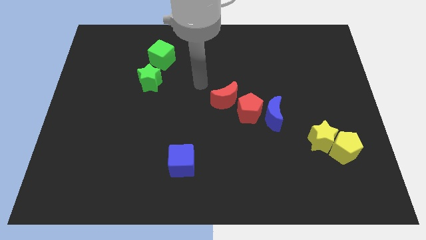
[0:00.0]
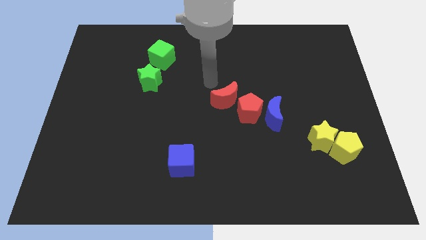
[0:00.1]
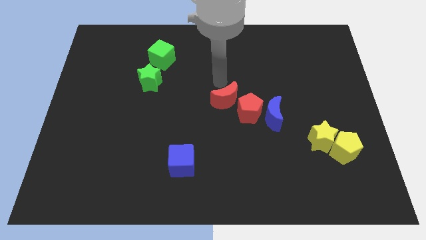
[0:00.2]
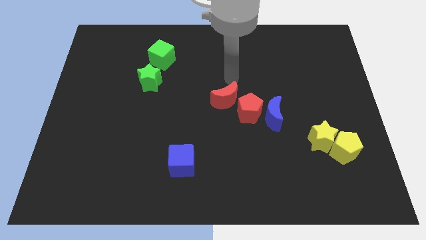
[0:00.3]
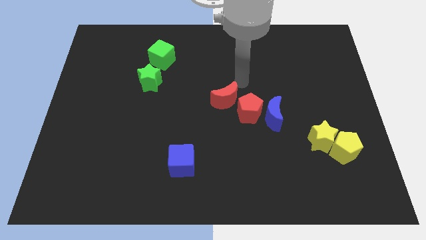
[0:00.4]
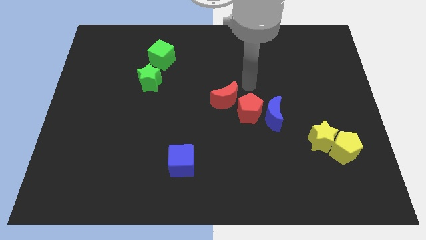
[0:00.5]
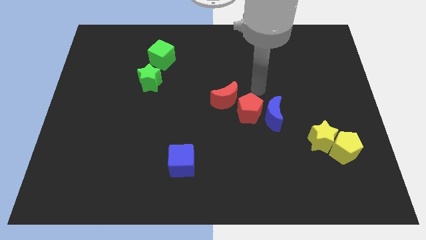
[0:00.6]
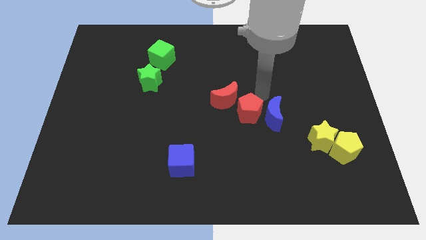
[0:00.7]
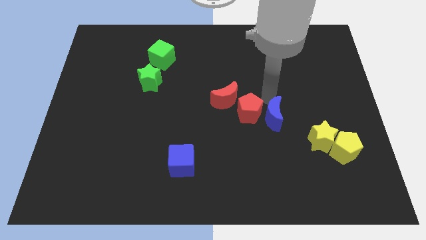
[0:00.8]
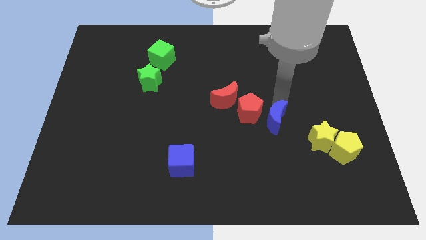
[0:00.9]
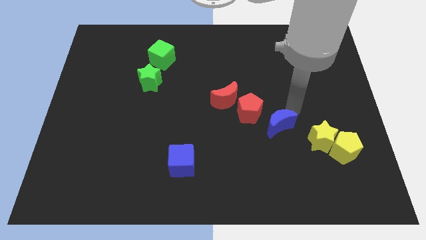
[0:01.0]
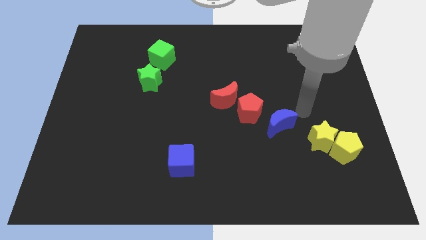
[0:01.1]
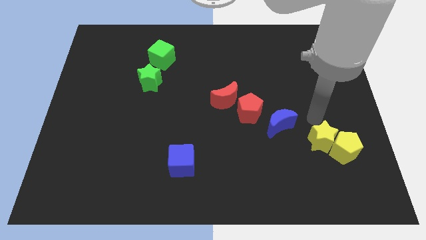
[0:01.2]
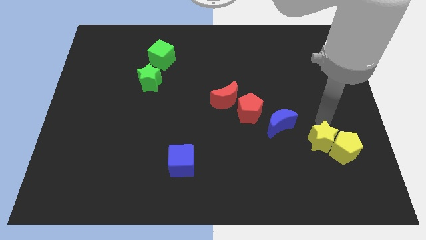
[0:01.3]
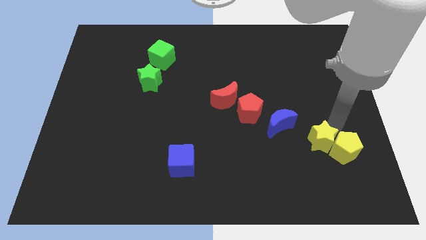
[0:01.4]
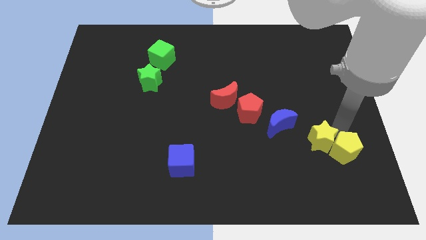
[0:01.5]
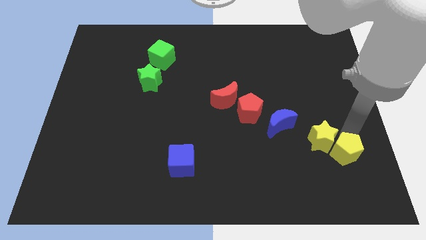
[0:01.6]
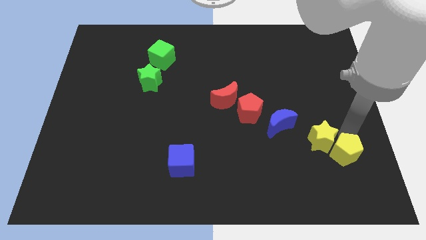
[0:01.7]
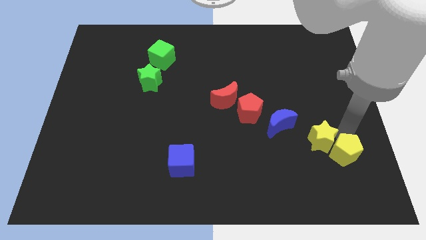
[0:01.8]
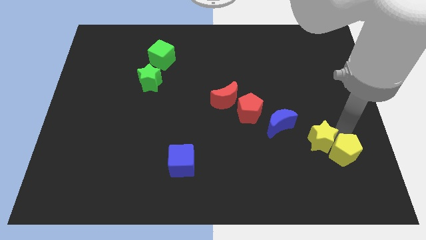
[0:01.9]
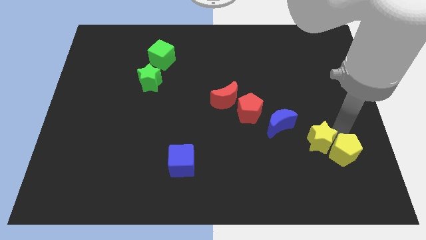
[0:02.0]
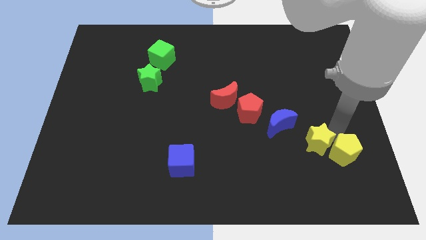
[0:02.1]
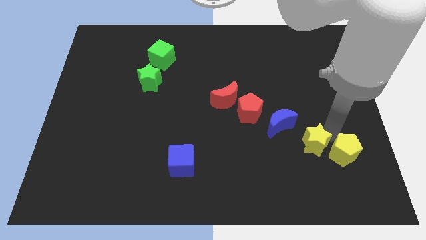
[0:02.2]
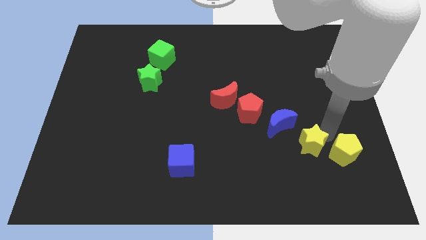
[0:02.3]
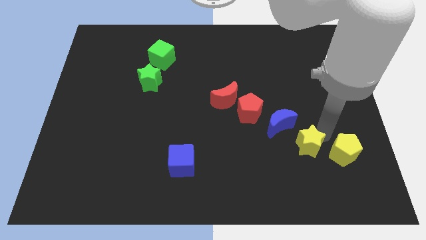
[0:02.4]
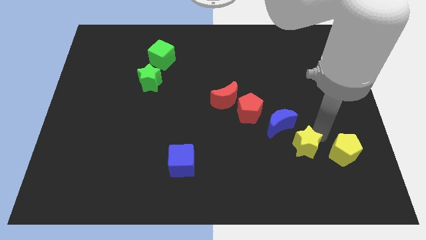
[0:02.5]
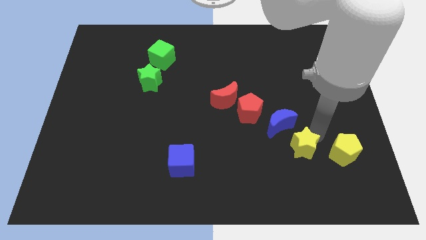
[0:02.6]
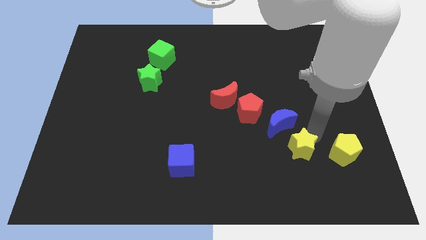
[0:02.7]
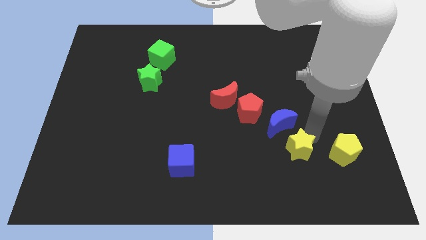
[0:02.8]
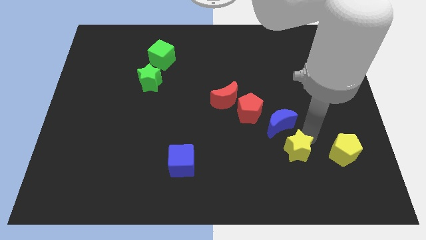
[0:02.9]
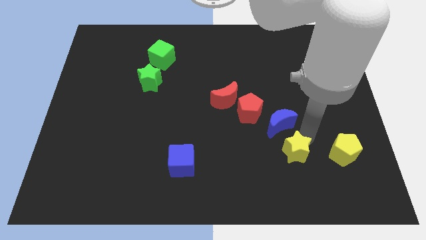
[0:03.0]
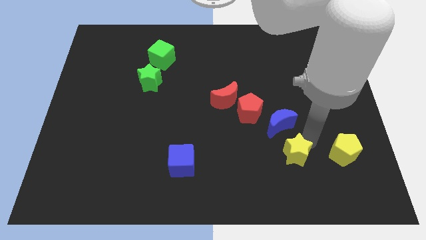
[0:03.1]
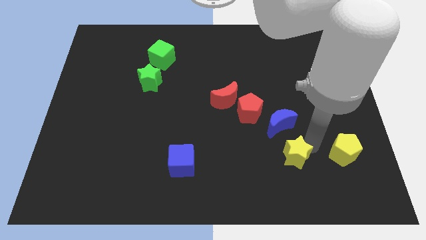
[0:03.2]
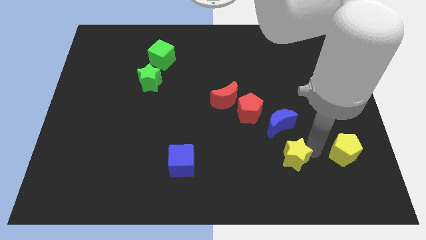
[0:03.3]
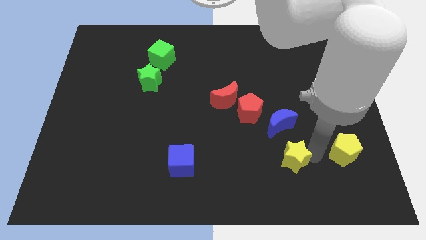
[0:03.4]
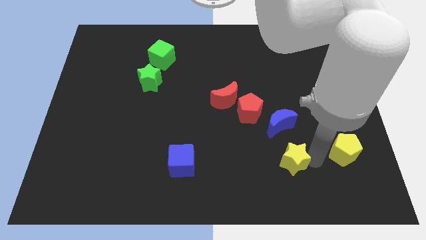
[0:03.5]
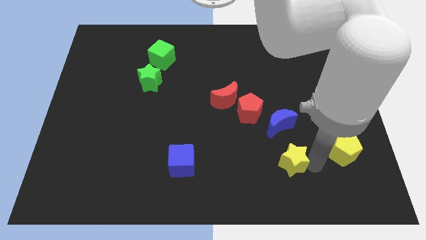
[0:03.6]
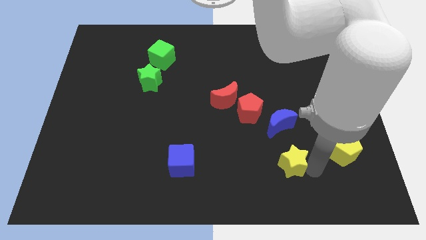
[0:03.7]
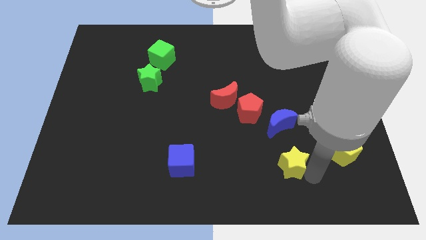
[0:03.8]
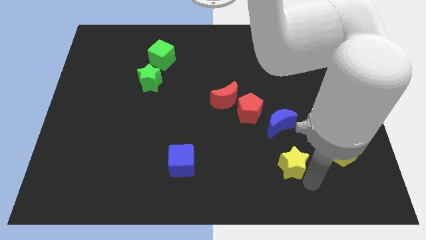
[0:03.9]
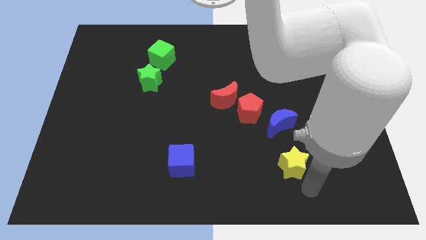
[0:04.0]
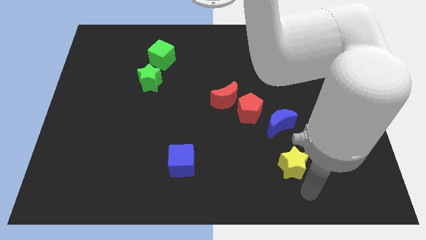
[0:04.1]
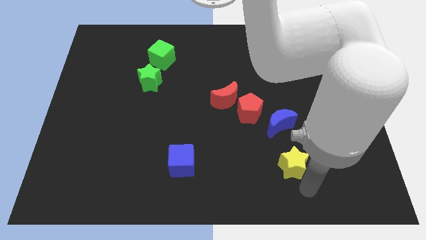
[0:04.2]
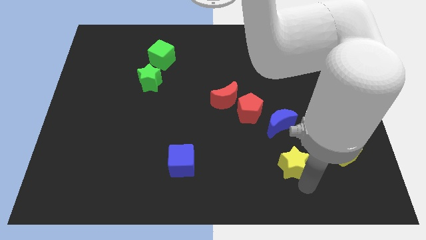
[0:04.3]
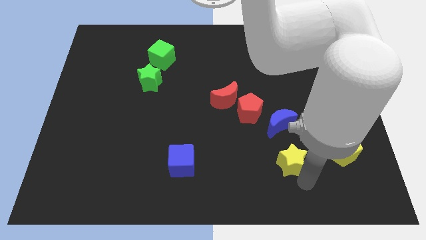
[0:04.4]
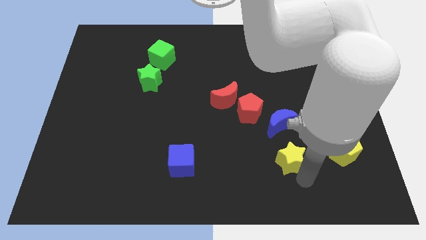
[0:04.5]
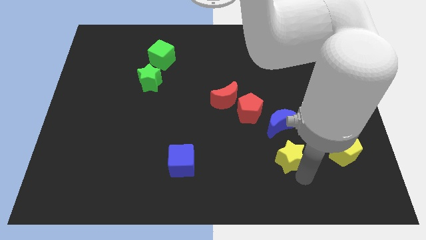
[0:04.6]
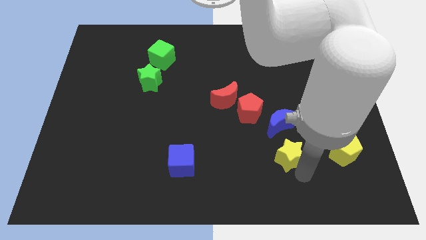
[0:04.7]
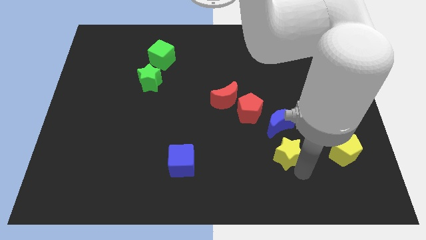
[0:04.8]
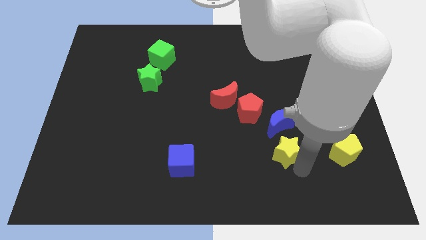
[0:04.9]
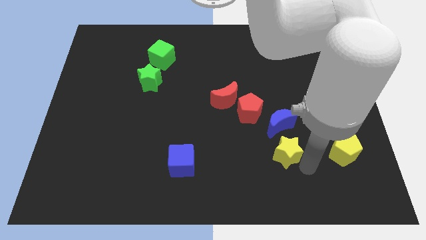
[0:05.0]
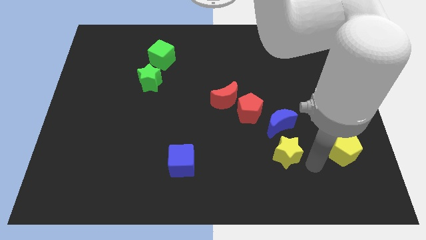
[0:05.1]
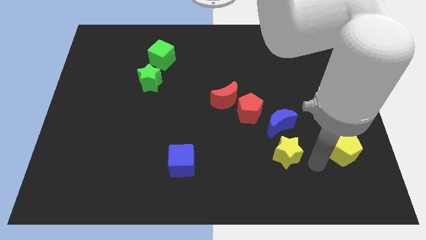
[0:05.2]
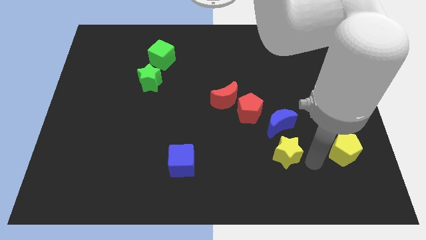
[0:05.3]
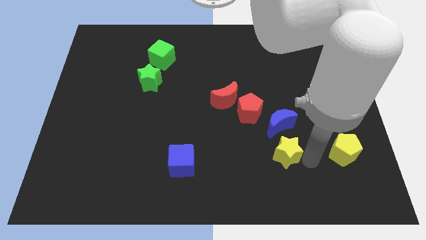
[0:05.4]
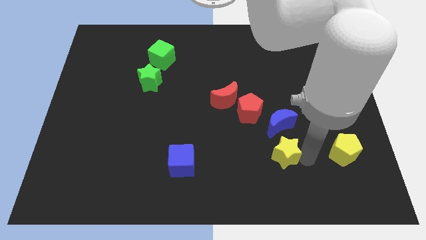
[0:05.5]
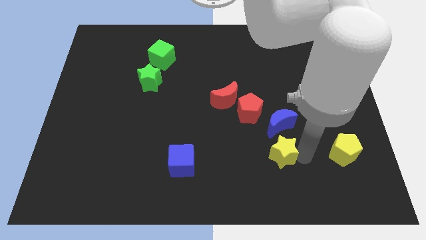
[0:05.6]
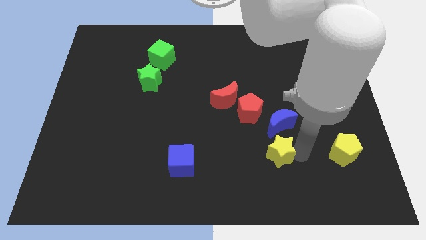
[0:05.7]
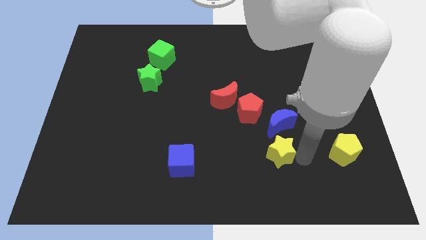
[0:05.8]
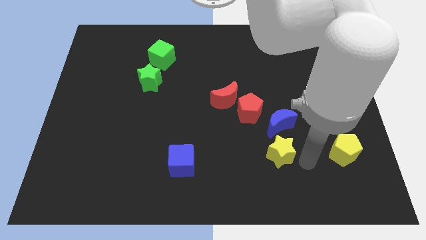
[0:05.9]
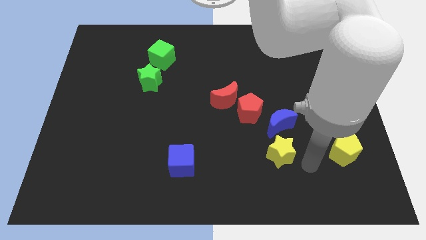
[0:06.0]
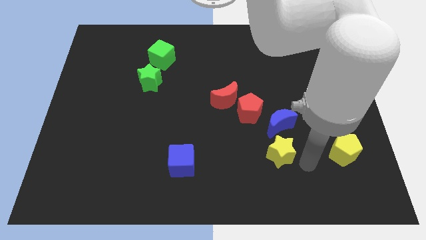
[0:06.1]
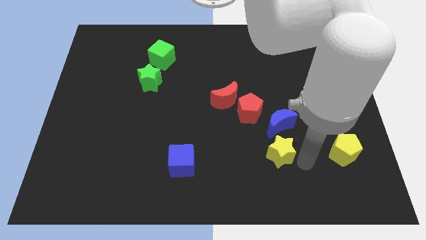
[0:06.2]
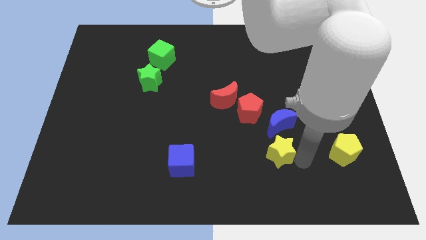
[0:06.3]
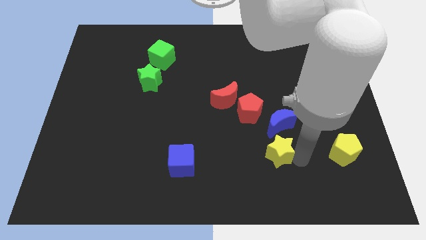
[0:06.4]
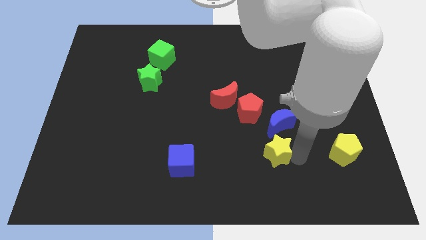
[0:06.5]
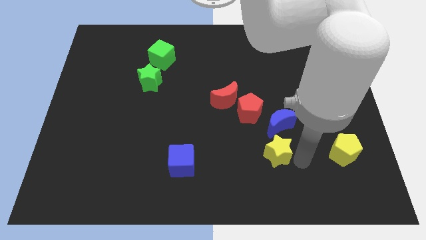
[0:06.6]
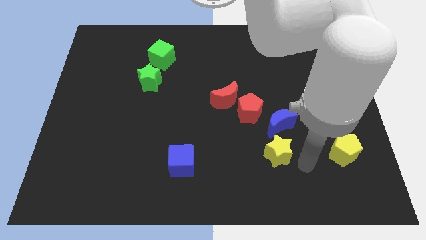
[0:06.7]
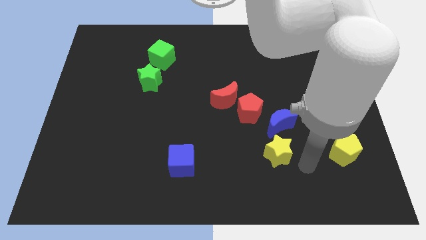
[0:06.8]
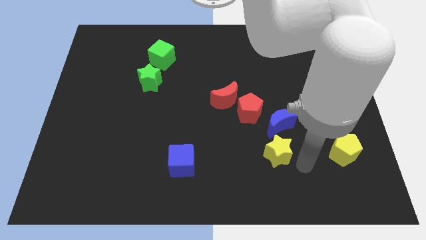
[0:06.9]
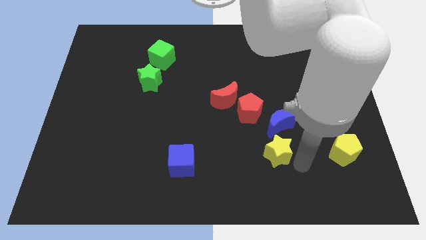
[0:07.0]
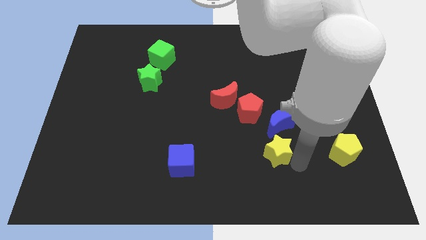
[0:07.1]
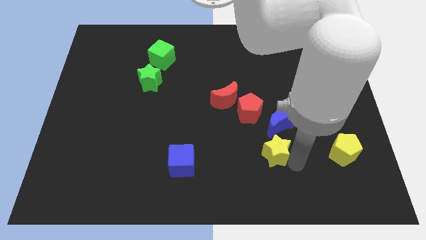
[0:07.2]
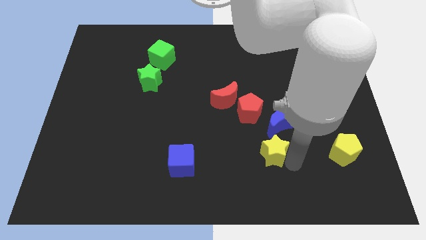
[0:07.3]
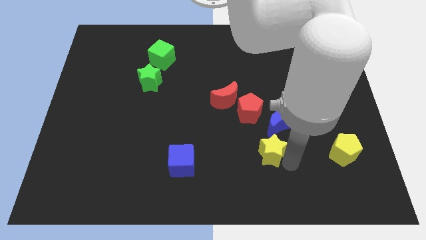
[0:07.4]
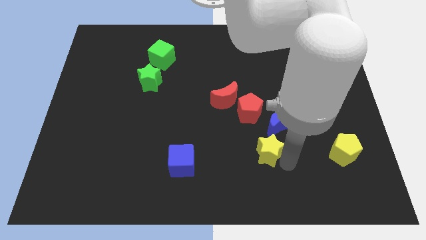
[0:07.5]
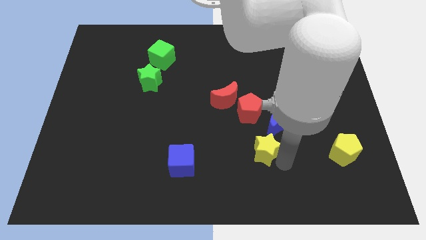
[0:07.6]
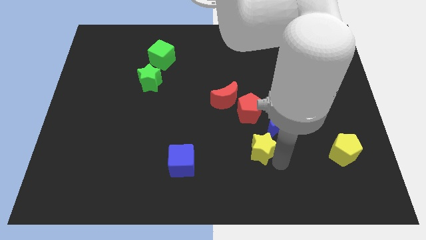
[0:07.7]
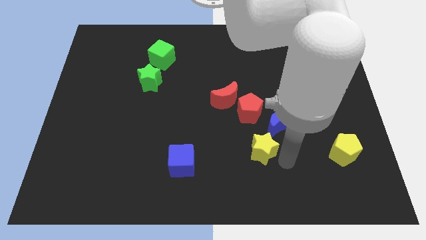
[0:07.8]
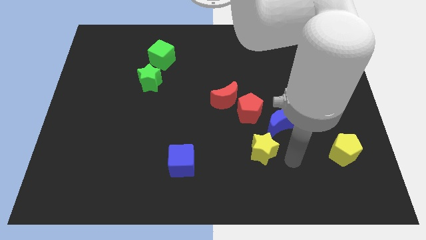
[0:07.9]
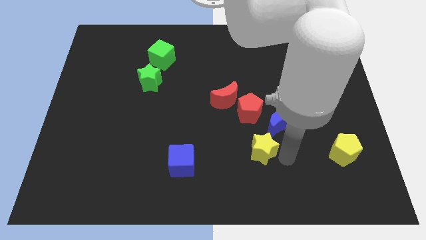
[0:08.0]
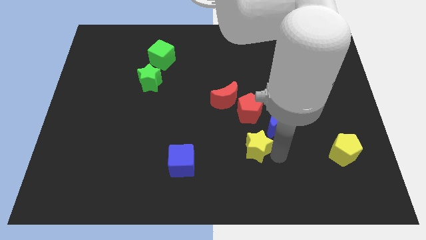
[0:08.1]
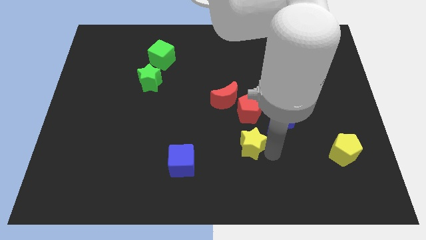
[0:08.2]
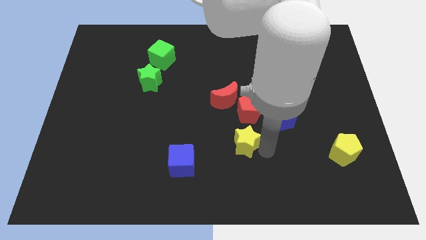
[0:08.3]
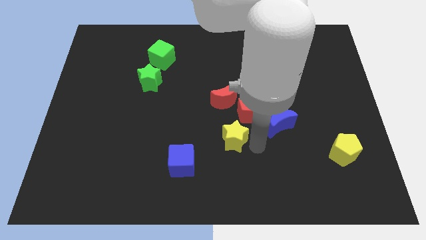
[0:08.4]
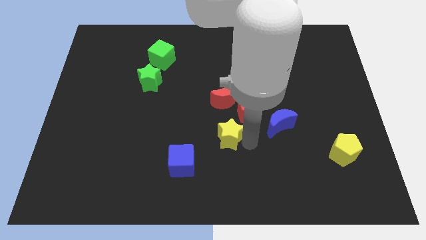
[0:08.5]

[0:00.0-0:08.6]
move the yellow star to the left
